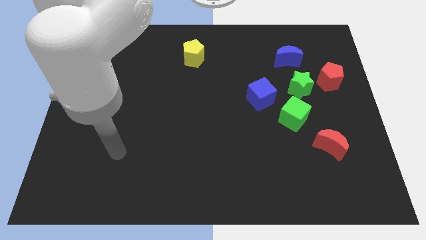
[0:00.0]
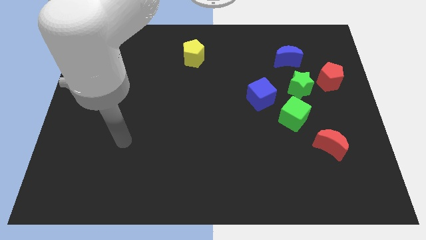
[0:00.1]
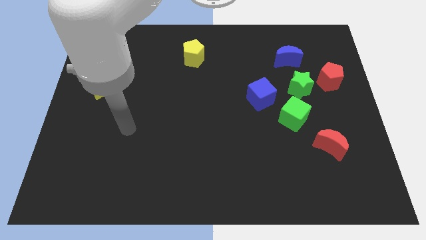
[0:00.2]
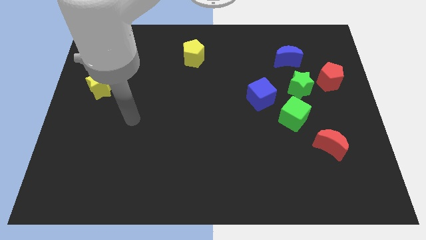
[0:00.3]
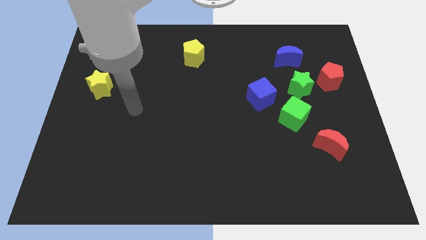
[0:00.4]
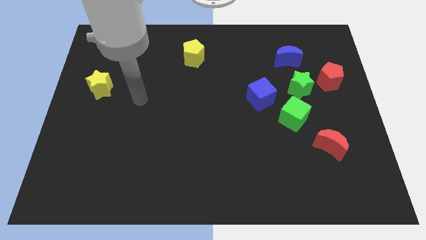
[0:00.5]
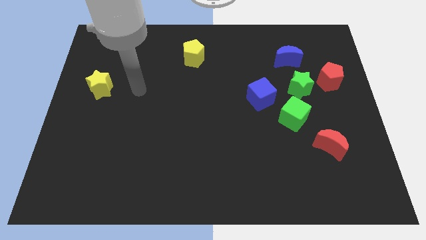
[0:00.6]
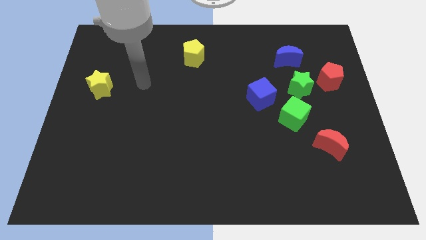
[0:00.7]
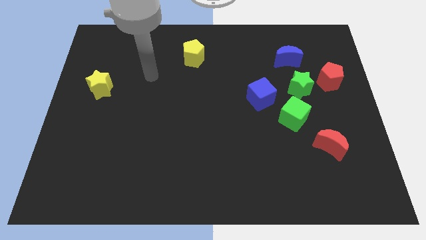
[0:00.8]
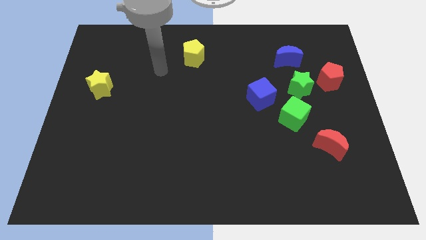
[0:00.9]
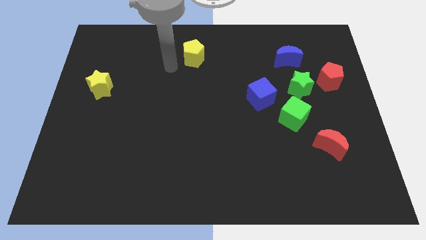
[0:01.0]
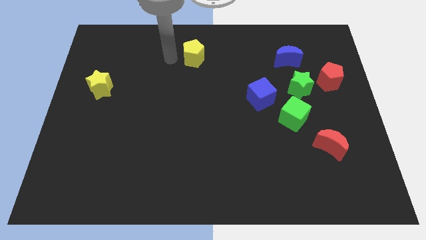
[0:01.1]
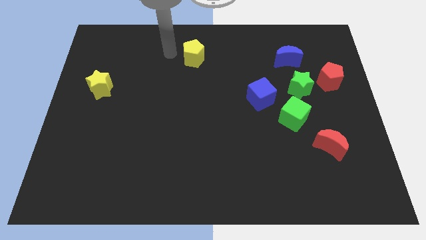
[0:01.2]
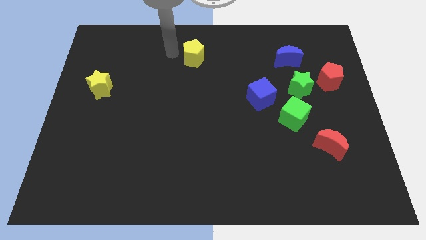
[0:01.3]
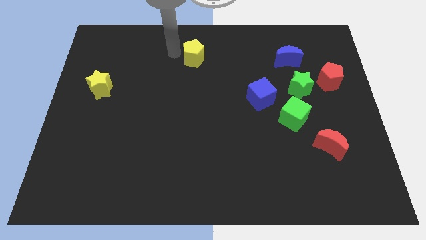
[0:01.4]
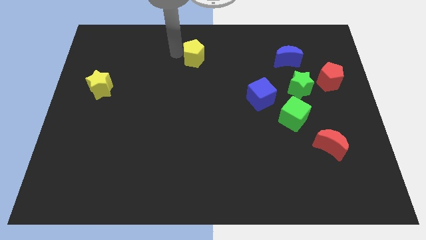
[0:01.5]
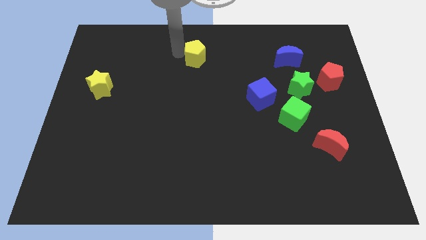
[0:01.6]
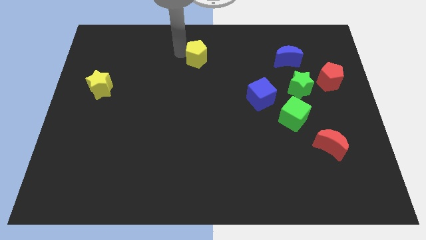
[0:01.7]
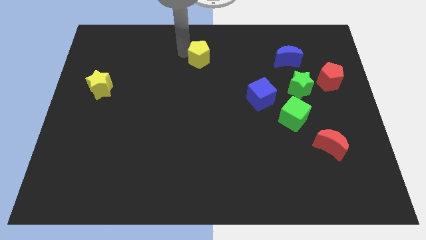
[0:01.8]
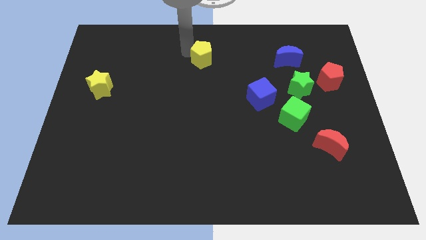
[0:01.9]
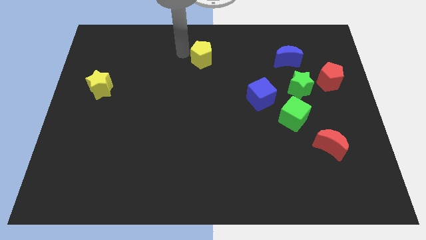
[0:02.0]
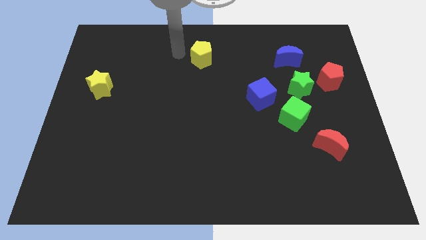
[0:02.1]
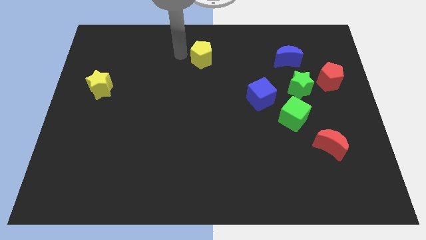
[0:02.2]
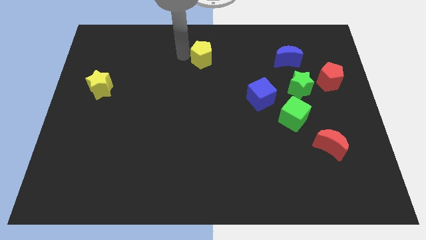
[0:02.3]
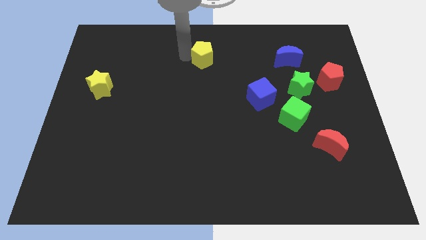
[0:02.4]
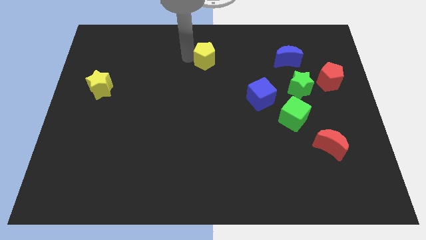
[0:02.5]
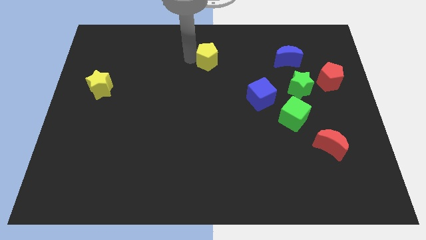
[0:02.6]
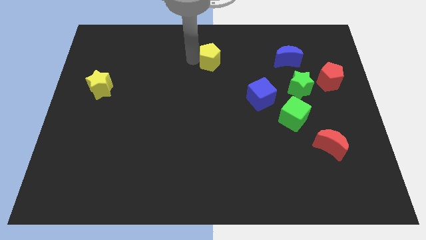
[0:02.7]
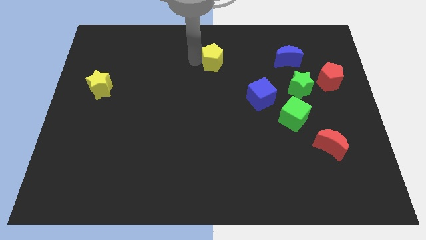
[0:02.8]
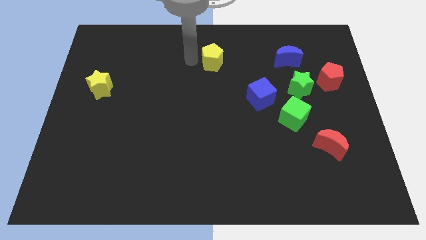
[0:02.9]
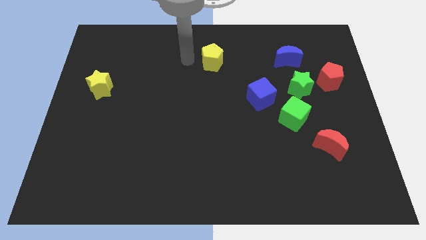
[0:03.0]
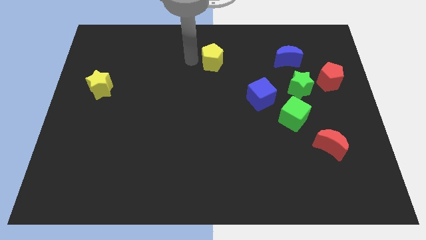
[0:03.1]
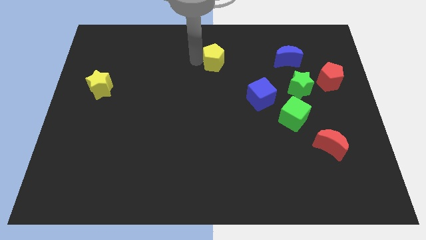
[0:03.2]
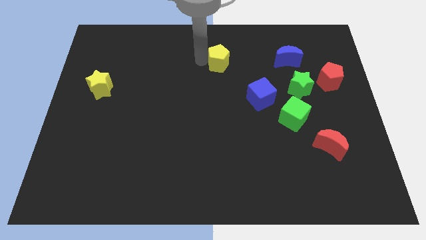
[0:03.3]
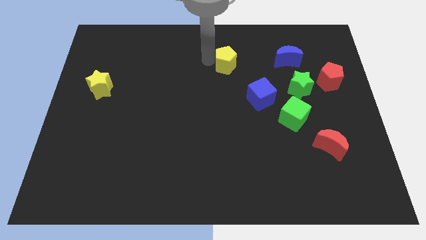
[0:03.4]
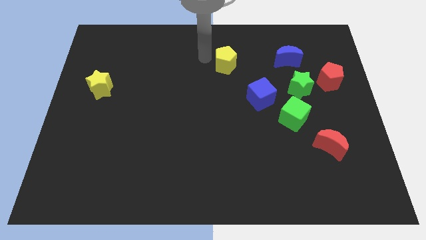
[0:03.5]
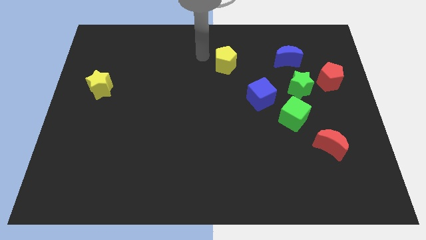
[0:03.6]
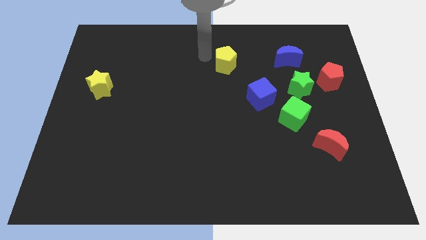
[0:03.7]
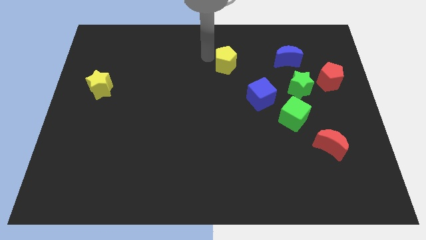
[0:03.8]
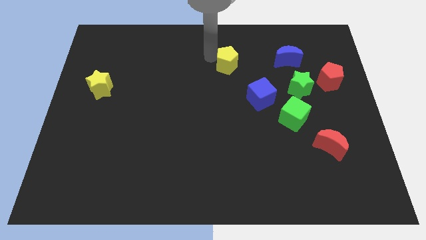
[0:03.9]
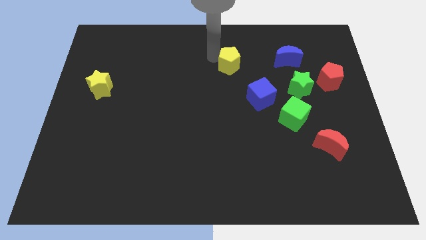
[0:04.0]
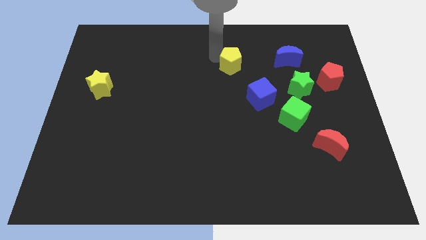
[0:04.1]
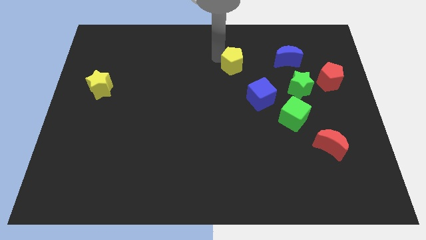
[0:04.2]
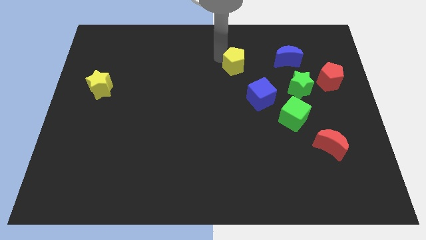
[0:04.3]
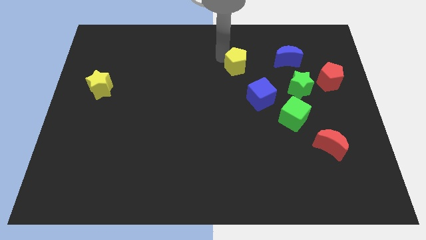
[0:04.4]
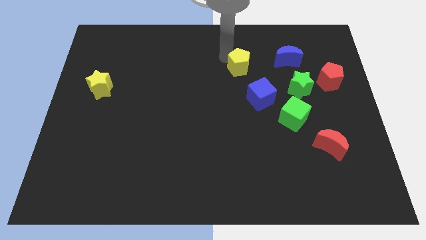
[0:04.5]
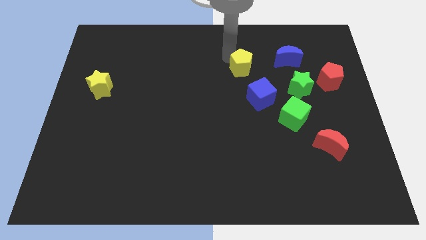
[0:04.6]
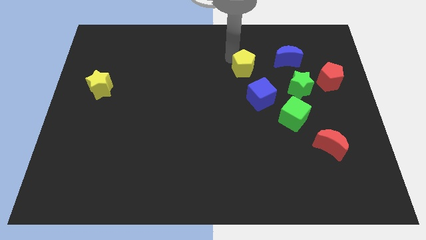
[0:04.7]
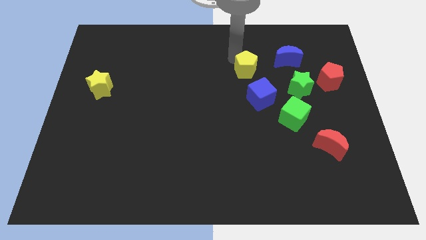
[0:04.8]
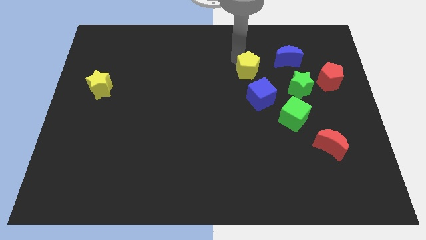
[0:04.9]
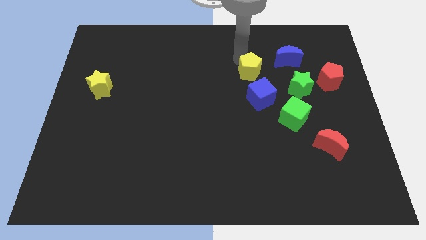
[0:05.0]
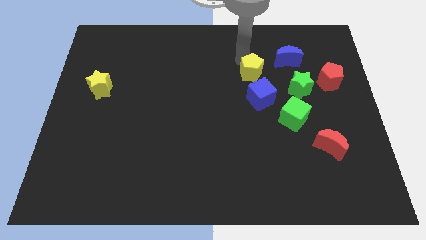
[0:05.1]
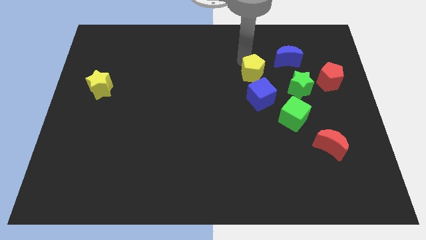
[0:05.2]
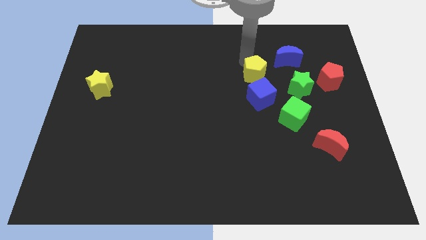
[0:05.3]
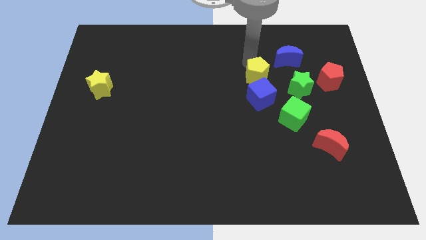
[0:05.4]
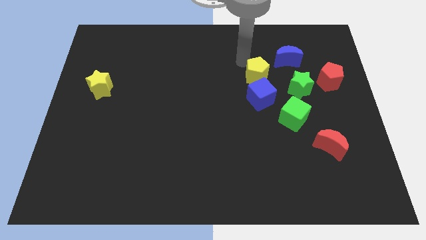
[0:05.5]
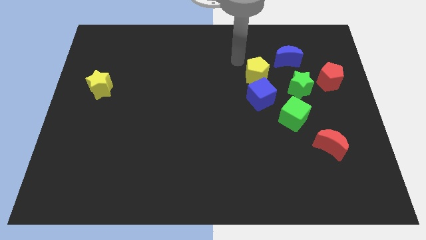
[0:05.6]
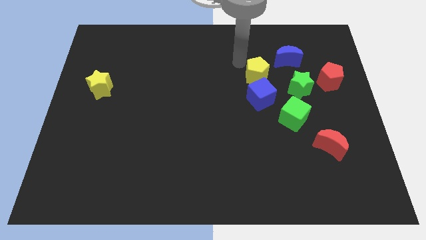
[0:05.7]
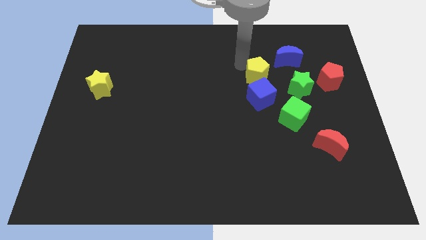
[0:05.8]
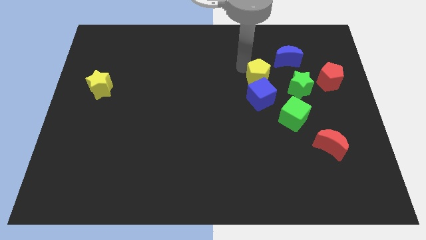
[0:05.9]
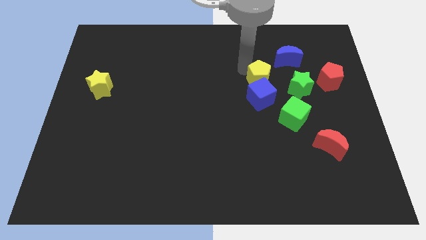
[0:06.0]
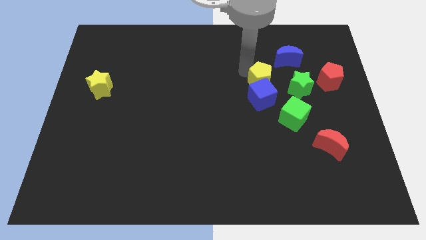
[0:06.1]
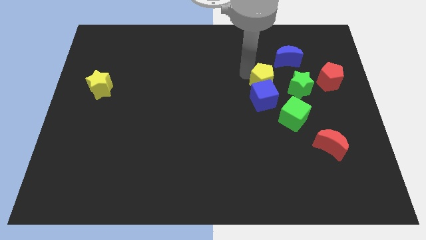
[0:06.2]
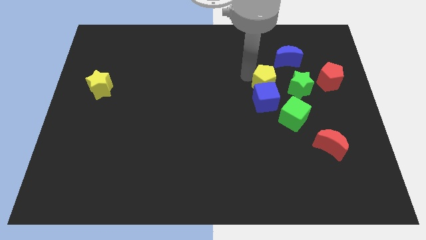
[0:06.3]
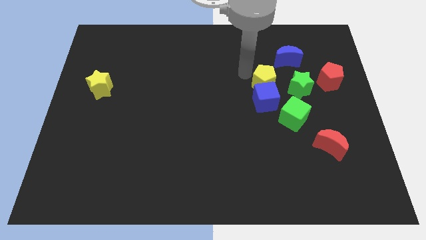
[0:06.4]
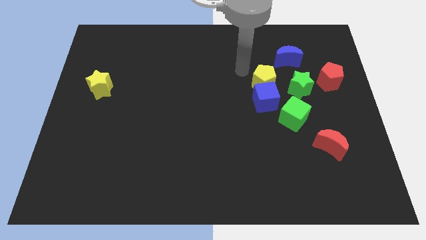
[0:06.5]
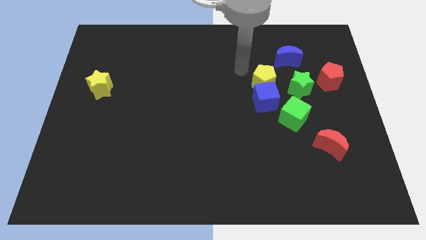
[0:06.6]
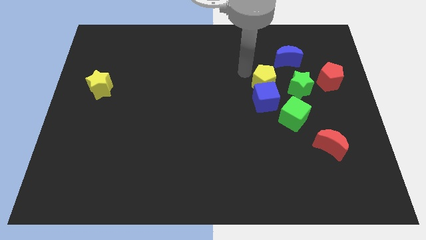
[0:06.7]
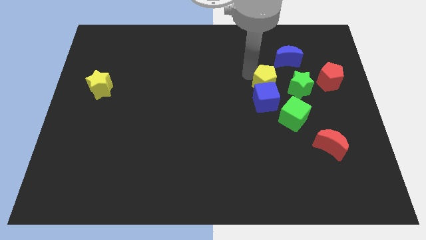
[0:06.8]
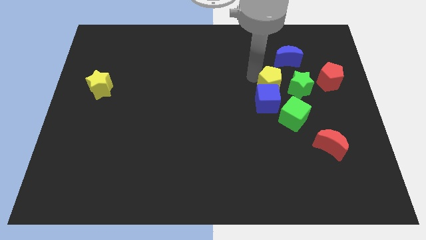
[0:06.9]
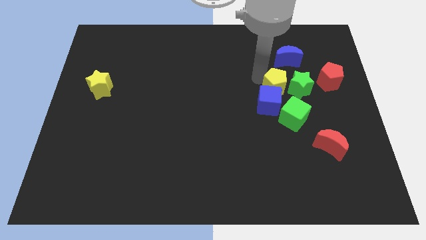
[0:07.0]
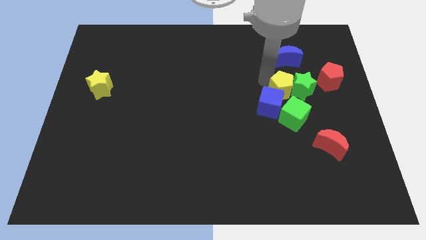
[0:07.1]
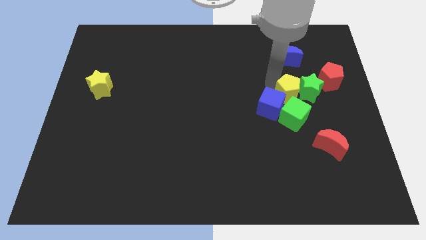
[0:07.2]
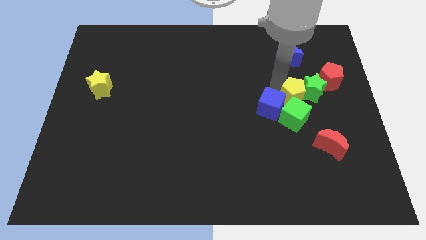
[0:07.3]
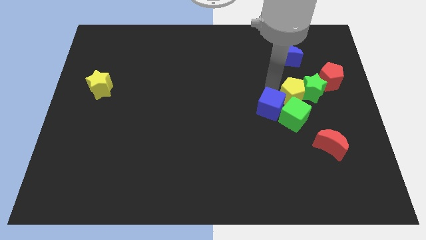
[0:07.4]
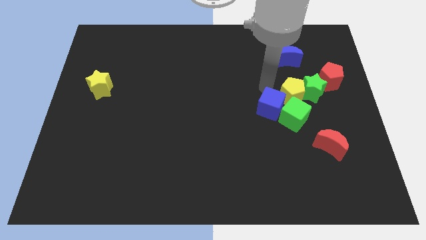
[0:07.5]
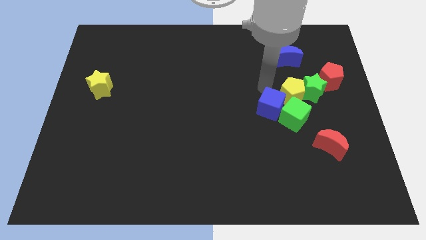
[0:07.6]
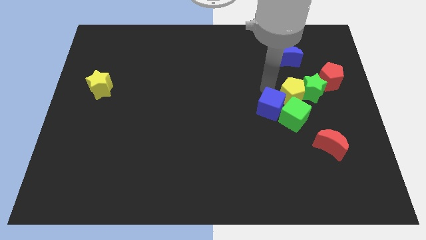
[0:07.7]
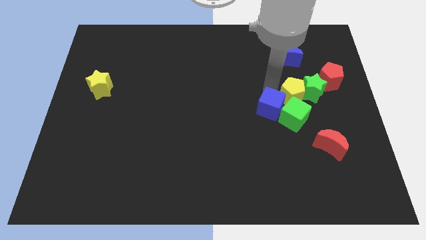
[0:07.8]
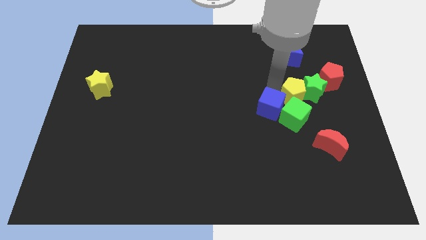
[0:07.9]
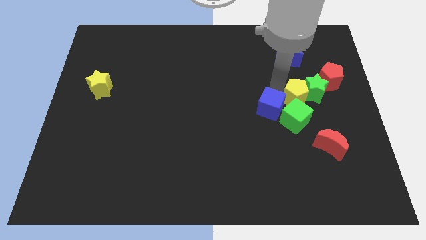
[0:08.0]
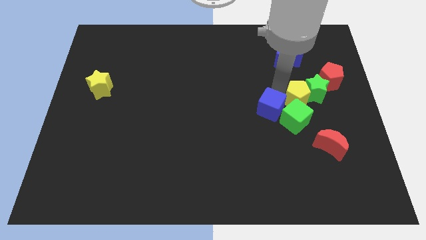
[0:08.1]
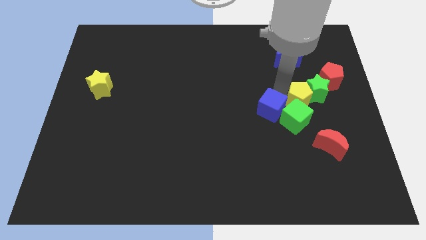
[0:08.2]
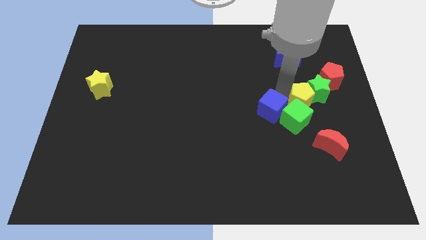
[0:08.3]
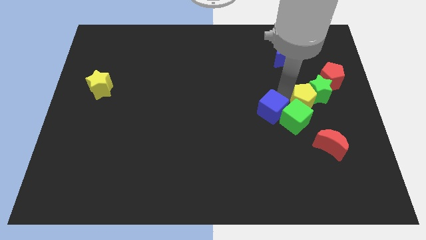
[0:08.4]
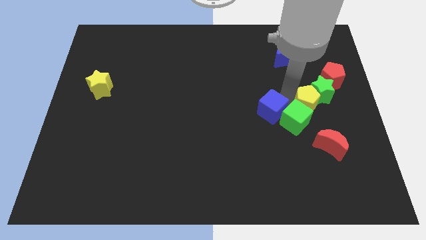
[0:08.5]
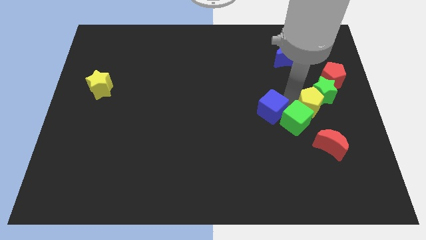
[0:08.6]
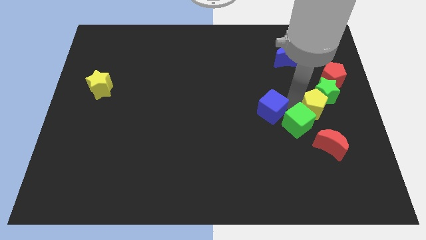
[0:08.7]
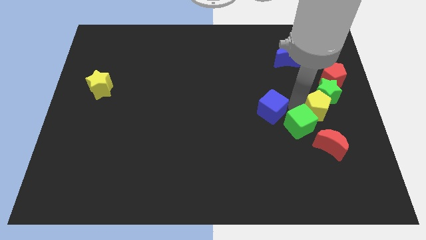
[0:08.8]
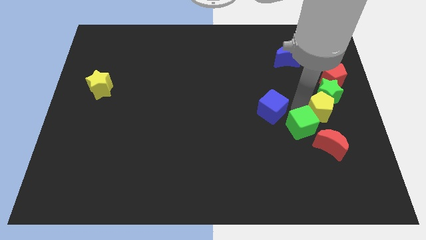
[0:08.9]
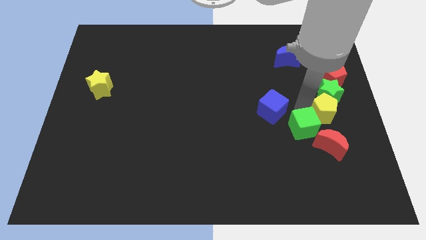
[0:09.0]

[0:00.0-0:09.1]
slide the yellow pentagon to the right side of the board
